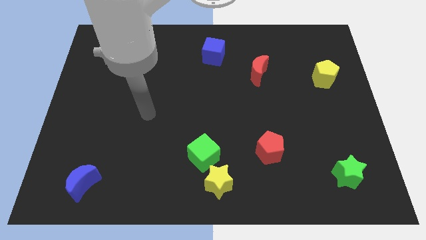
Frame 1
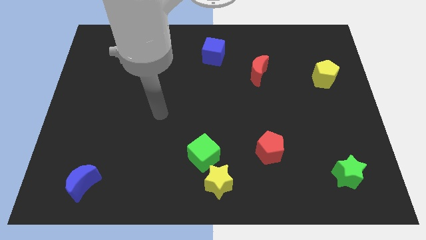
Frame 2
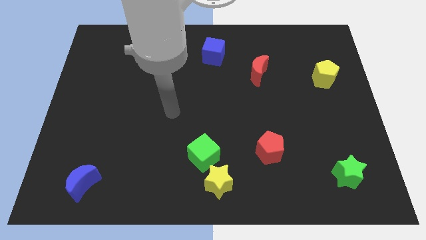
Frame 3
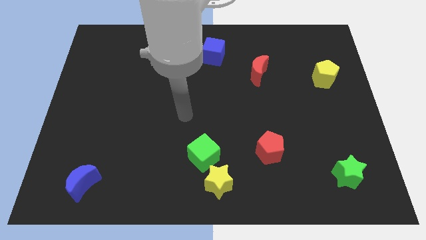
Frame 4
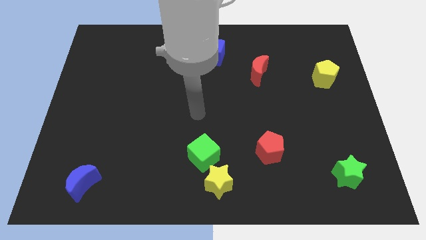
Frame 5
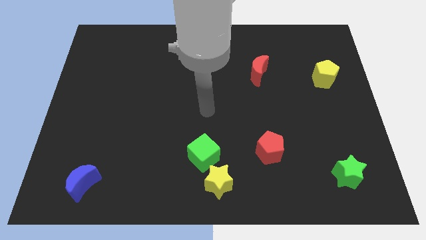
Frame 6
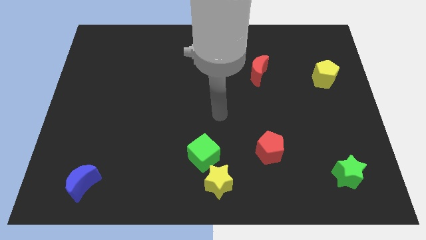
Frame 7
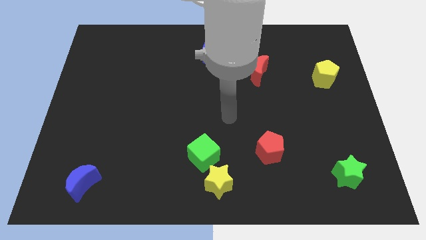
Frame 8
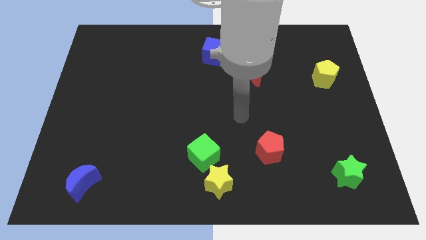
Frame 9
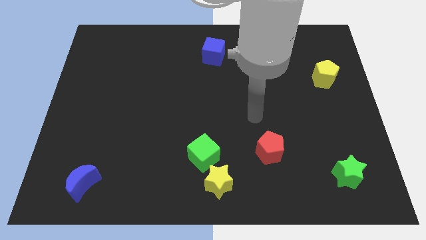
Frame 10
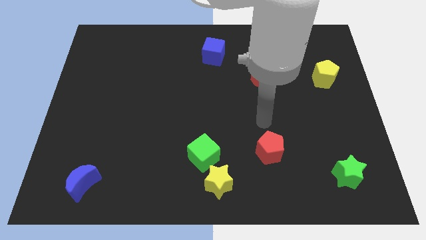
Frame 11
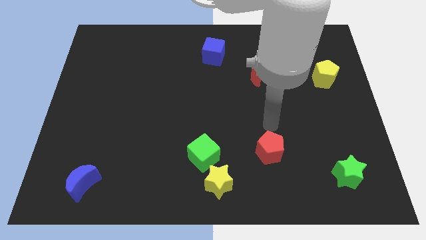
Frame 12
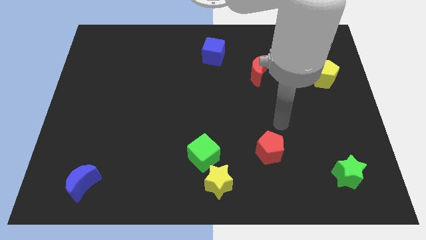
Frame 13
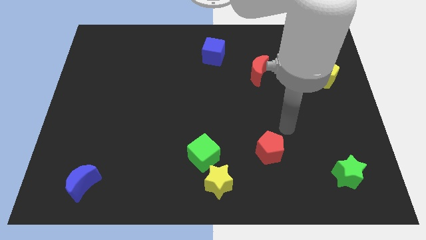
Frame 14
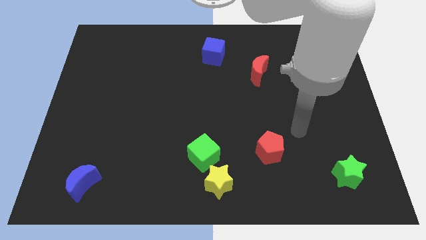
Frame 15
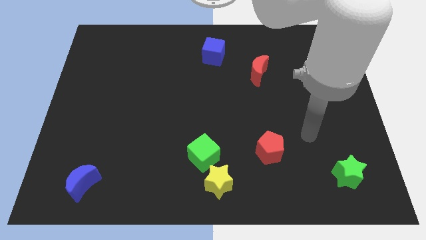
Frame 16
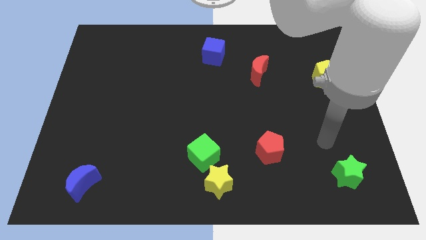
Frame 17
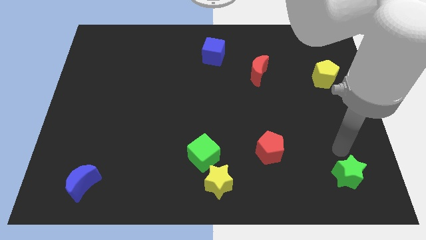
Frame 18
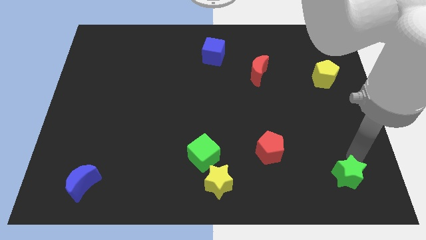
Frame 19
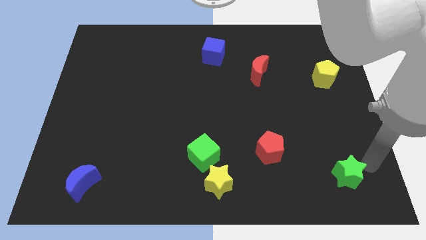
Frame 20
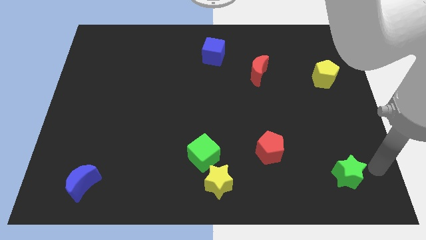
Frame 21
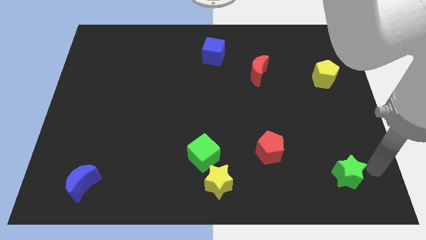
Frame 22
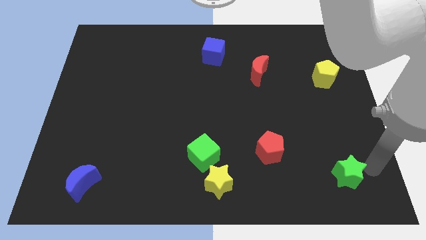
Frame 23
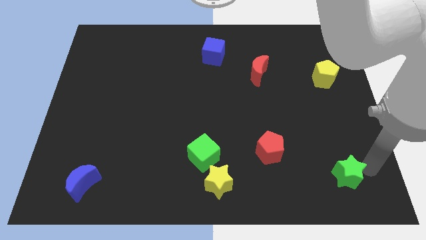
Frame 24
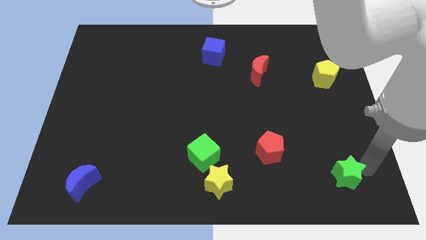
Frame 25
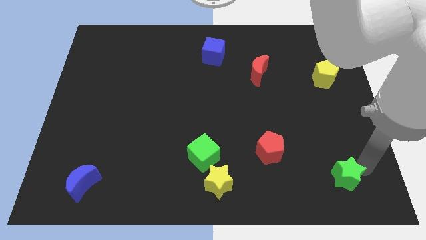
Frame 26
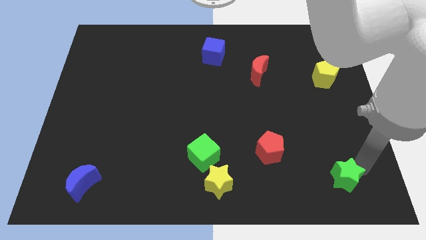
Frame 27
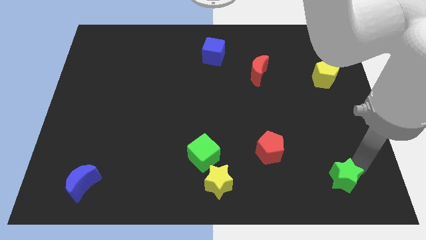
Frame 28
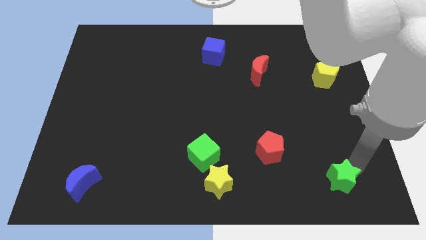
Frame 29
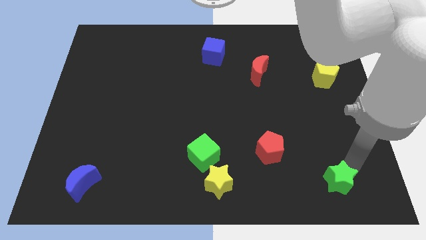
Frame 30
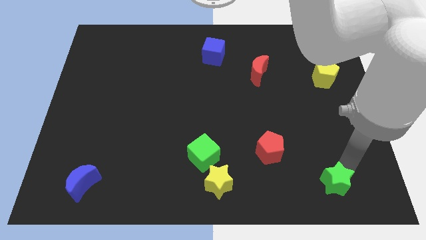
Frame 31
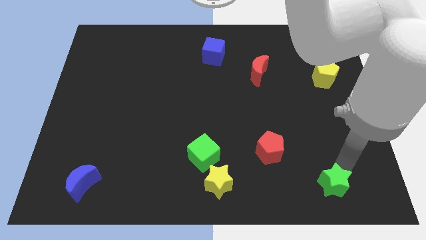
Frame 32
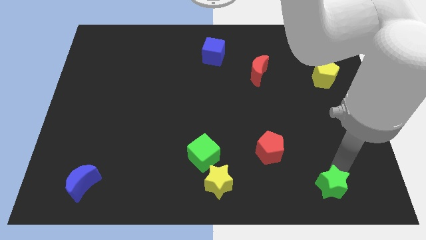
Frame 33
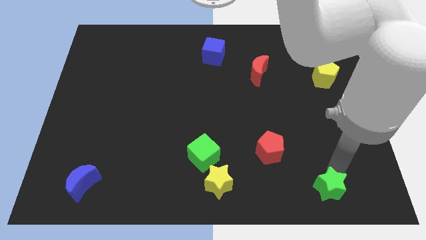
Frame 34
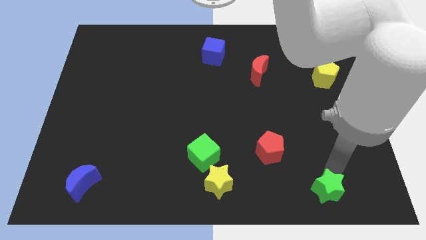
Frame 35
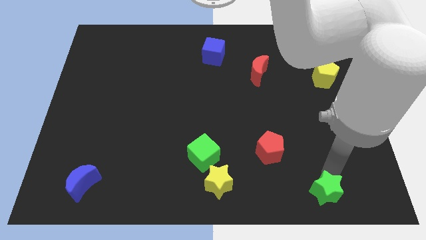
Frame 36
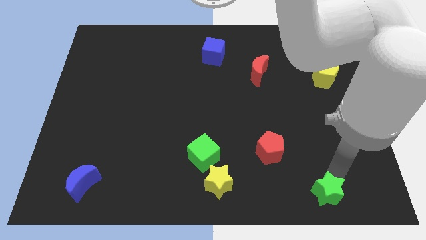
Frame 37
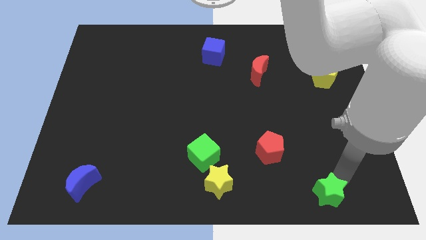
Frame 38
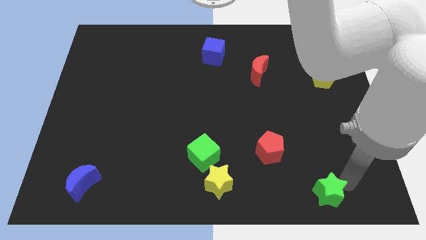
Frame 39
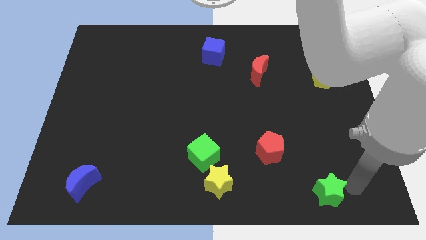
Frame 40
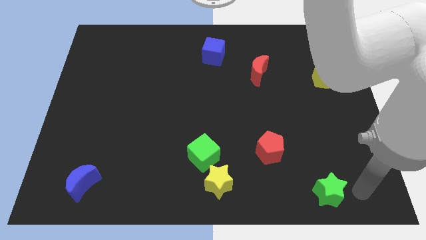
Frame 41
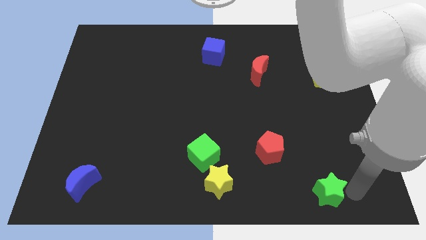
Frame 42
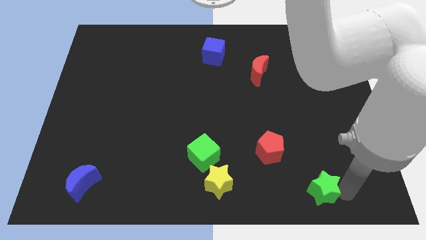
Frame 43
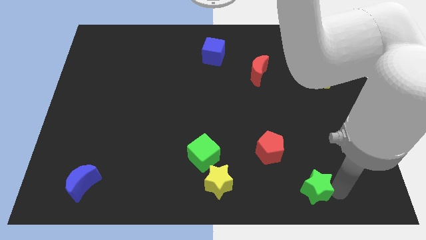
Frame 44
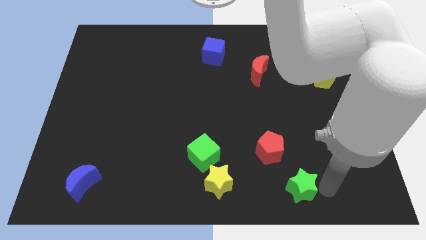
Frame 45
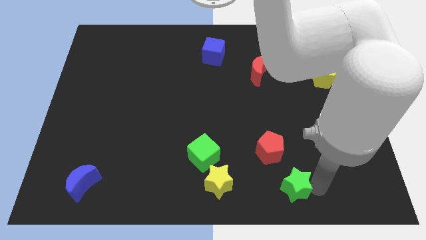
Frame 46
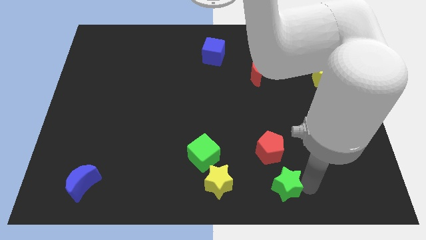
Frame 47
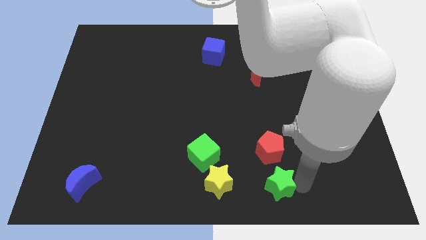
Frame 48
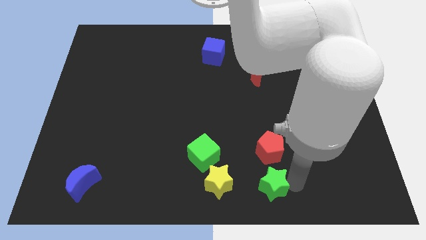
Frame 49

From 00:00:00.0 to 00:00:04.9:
put the green star to the bottom side

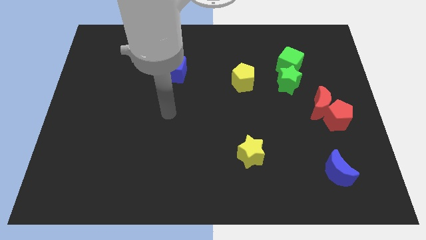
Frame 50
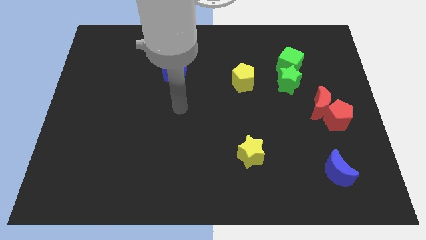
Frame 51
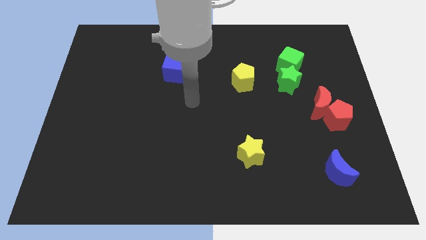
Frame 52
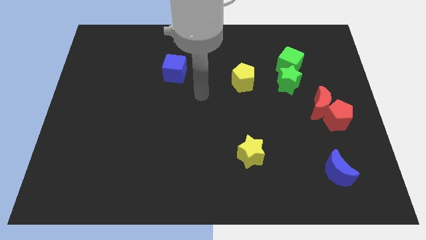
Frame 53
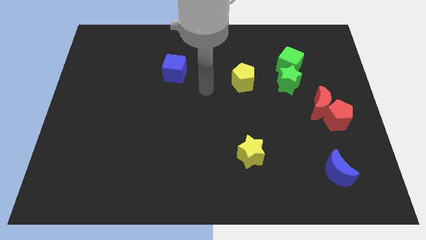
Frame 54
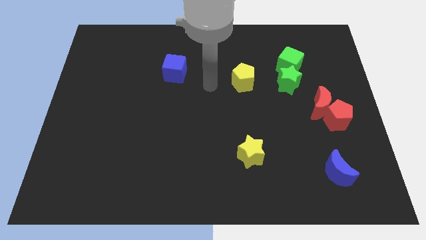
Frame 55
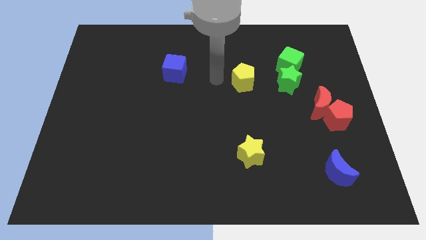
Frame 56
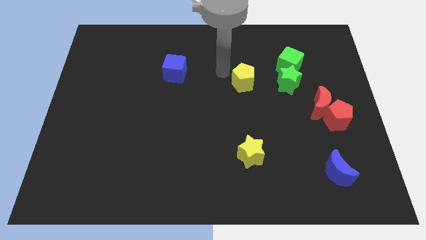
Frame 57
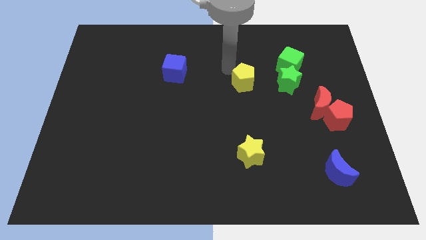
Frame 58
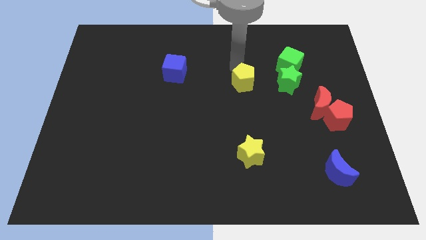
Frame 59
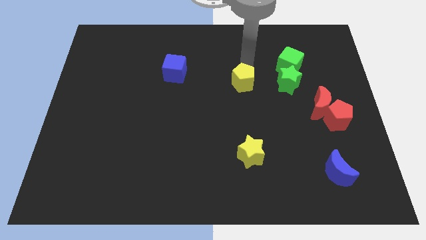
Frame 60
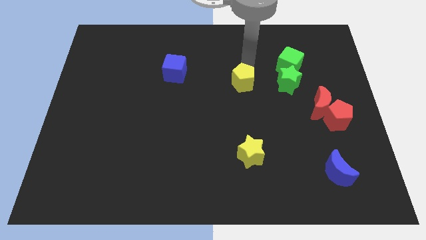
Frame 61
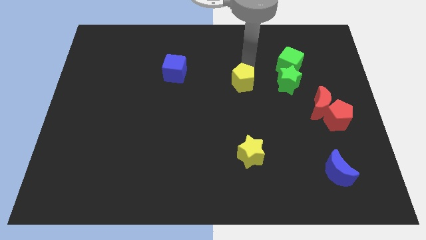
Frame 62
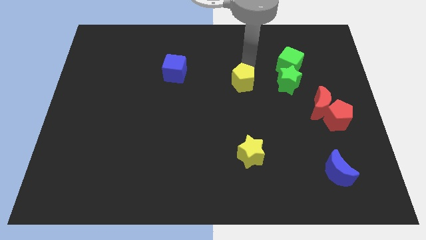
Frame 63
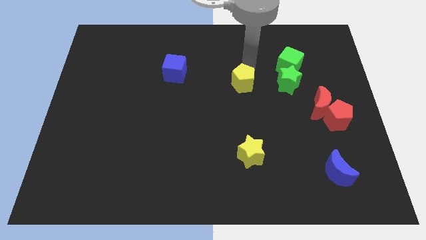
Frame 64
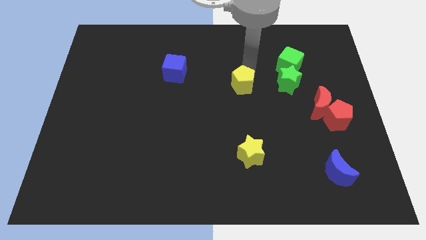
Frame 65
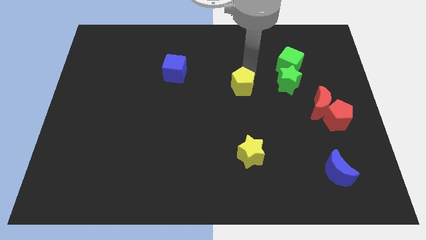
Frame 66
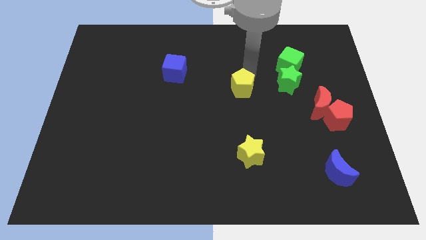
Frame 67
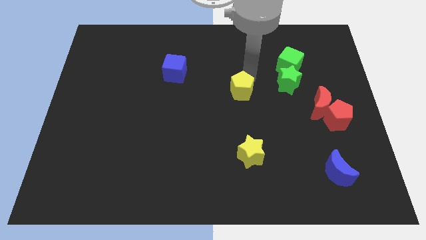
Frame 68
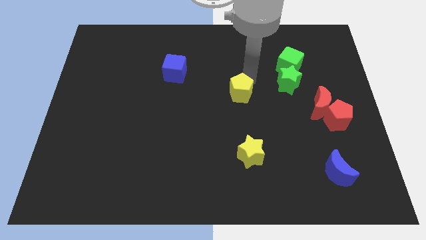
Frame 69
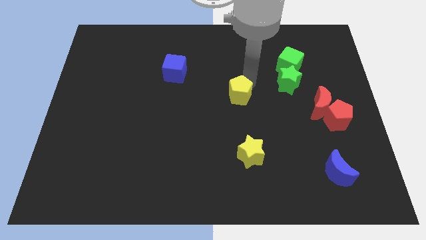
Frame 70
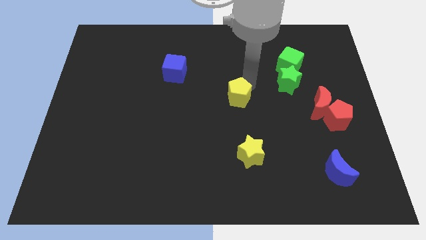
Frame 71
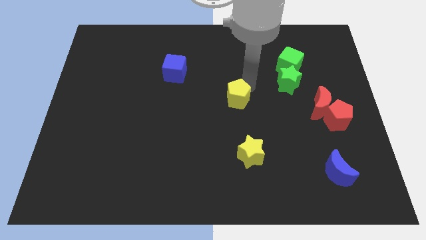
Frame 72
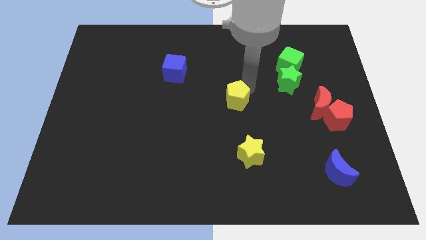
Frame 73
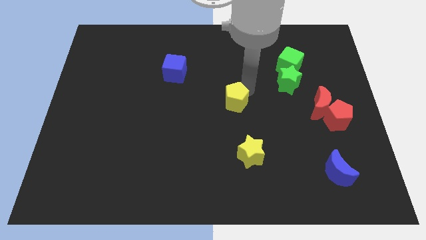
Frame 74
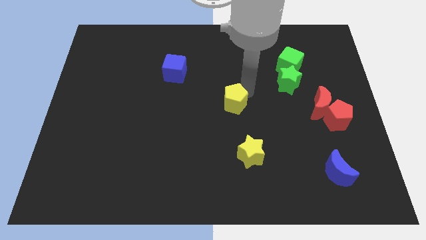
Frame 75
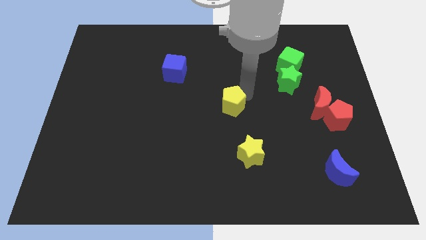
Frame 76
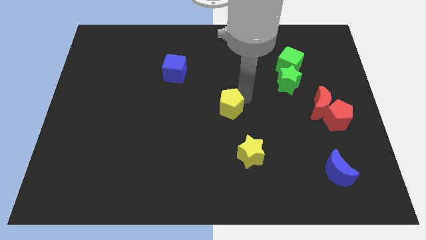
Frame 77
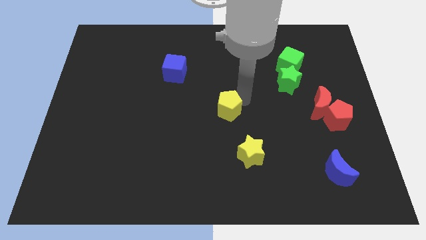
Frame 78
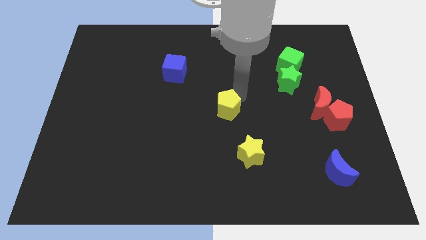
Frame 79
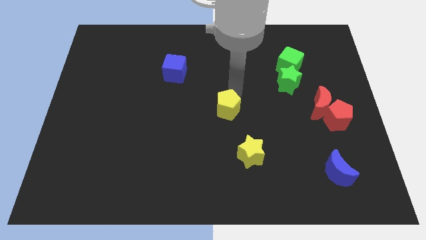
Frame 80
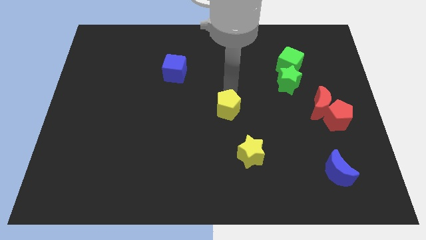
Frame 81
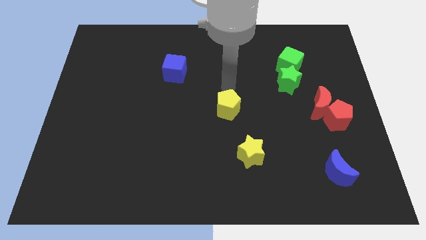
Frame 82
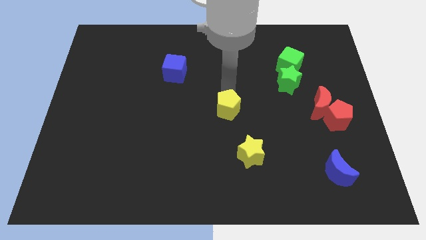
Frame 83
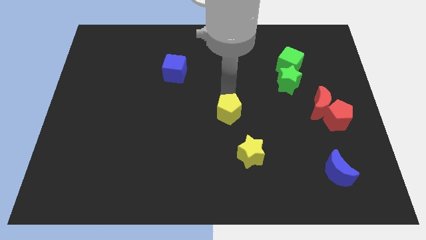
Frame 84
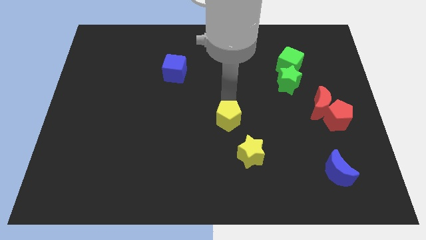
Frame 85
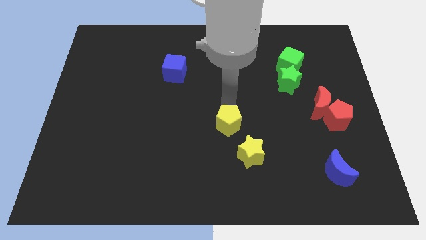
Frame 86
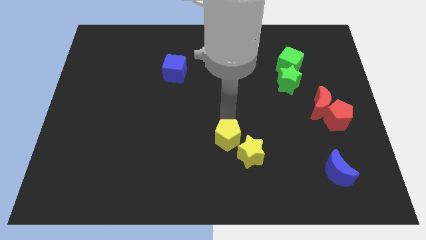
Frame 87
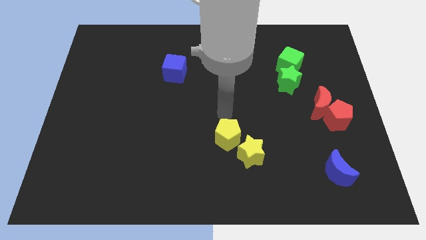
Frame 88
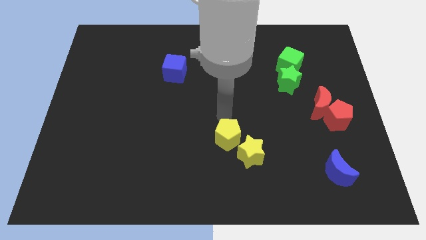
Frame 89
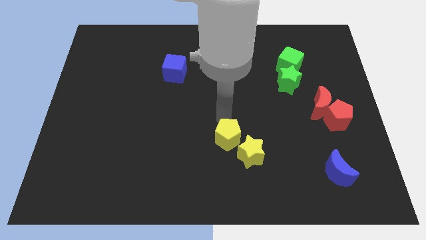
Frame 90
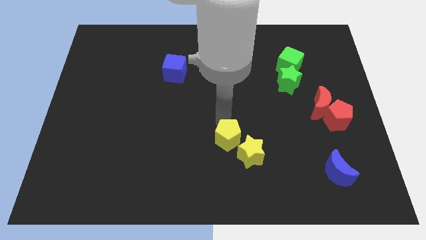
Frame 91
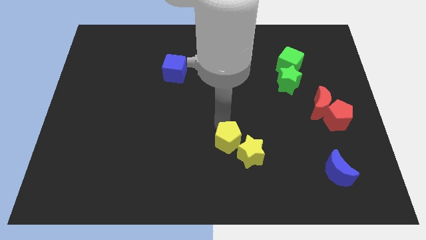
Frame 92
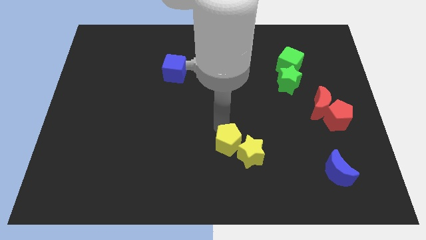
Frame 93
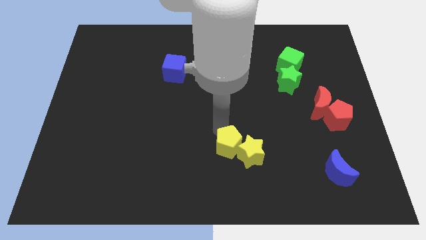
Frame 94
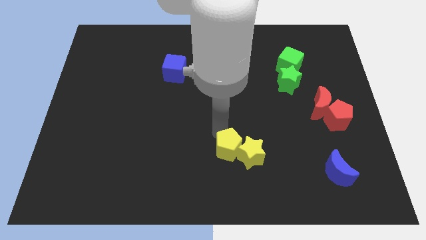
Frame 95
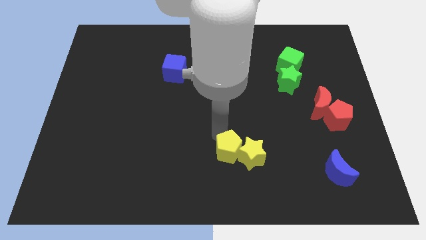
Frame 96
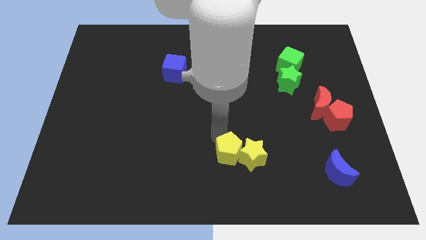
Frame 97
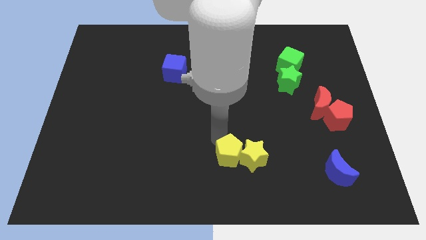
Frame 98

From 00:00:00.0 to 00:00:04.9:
slide the yellow pentagon to the bottom
